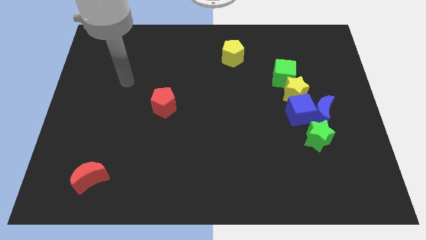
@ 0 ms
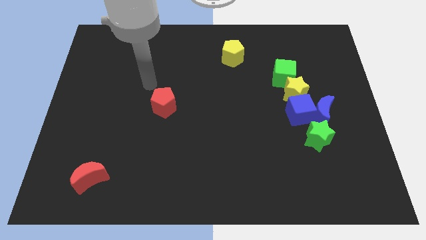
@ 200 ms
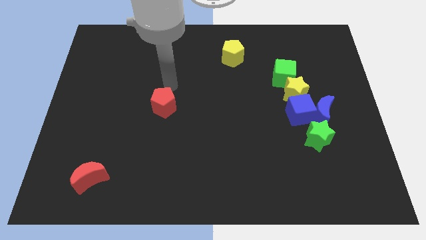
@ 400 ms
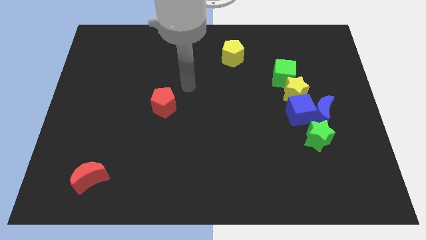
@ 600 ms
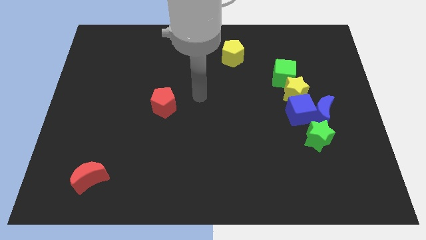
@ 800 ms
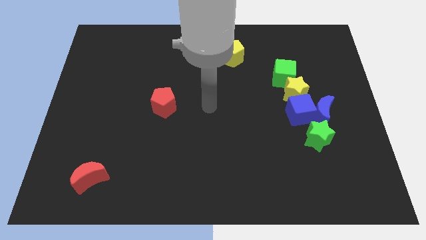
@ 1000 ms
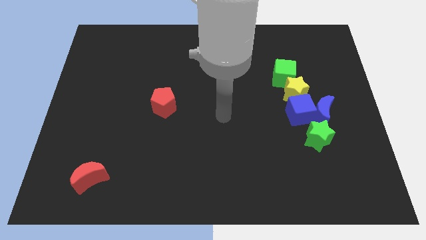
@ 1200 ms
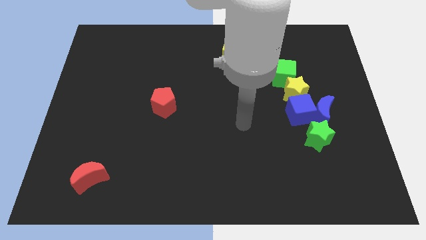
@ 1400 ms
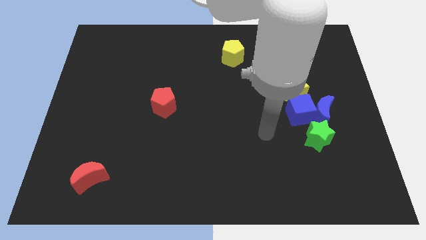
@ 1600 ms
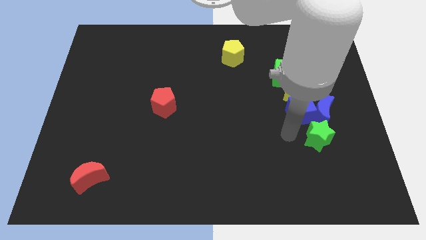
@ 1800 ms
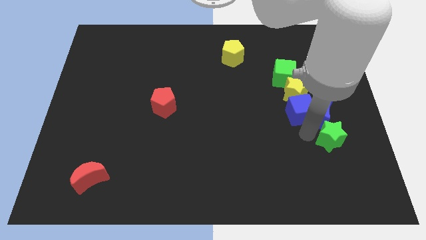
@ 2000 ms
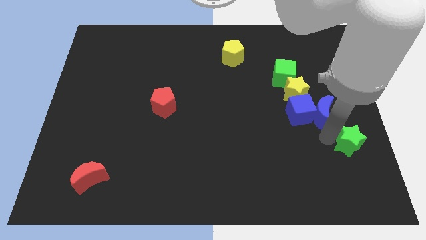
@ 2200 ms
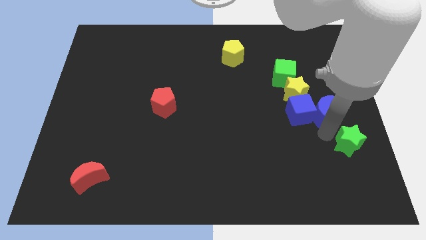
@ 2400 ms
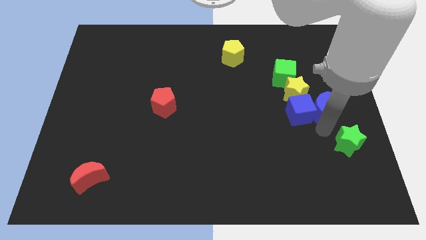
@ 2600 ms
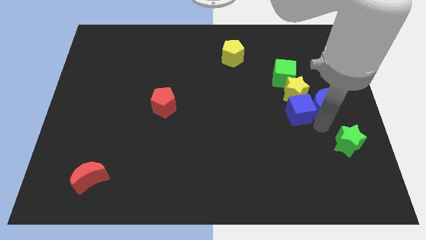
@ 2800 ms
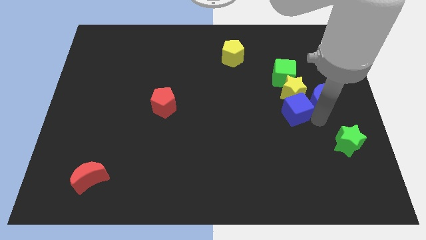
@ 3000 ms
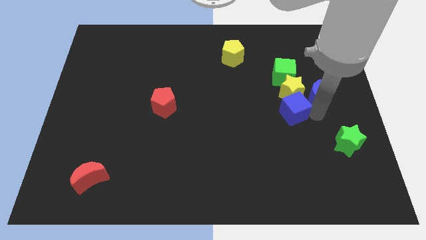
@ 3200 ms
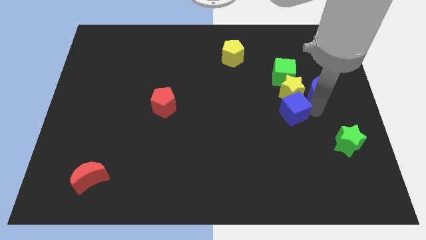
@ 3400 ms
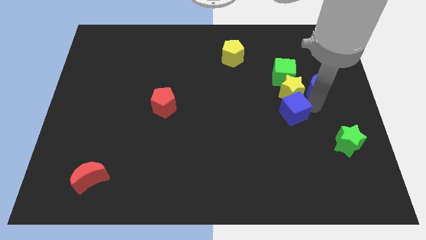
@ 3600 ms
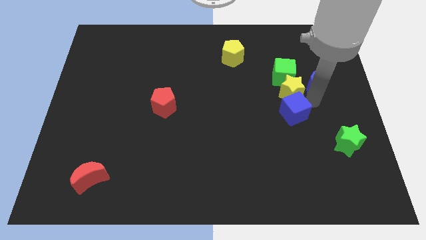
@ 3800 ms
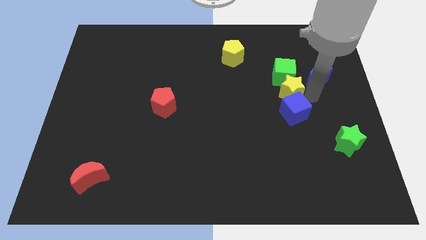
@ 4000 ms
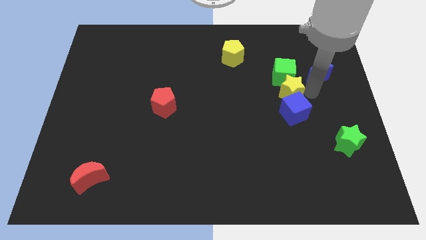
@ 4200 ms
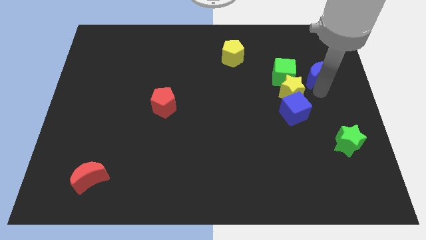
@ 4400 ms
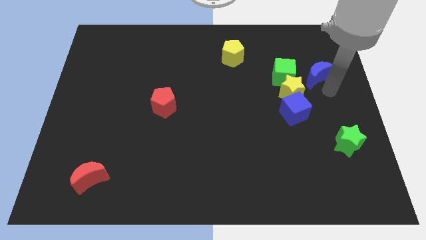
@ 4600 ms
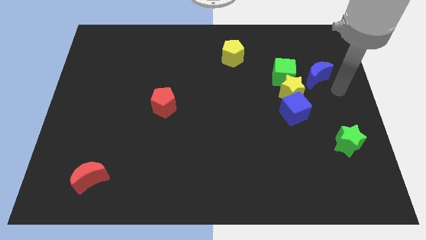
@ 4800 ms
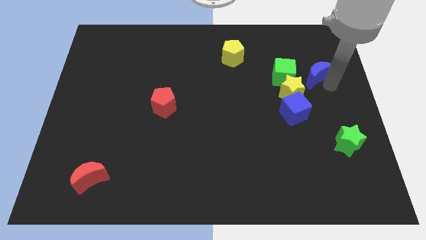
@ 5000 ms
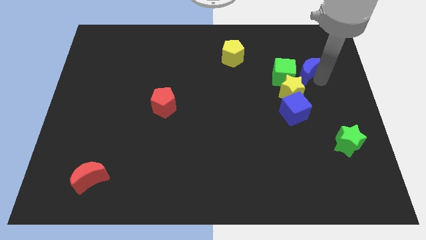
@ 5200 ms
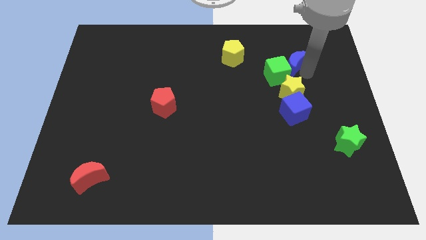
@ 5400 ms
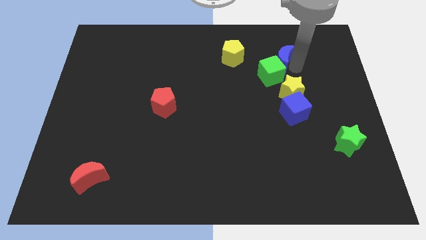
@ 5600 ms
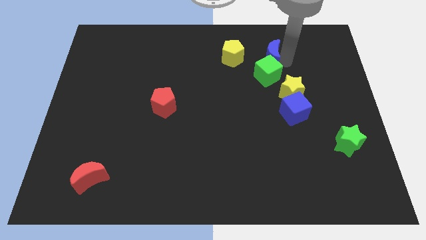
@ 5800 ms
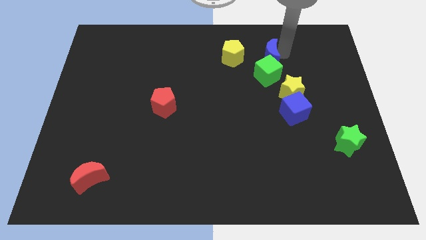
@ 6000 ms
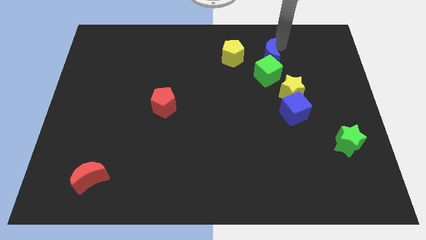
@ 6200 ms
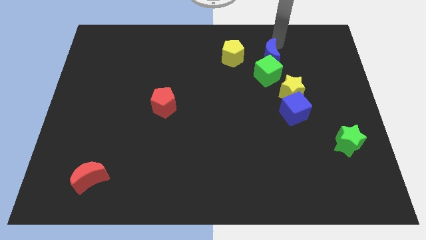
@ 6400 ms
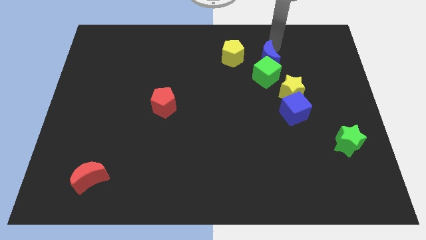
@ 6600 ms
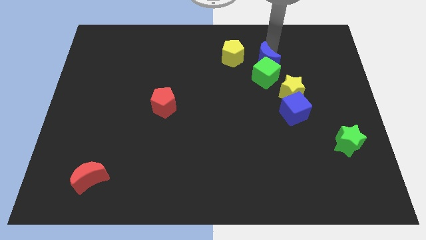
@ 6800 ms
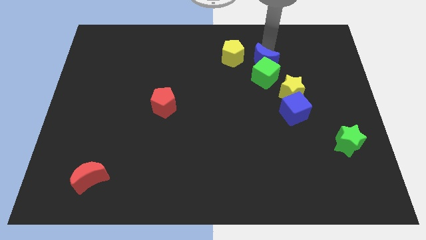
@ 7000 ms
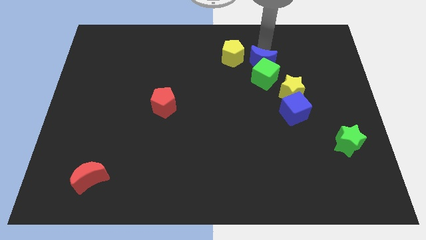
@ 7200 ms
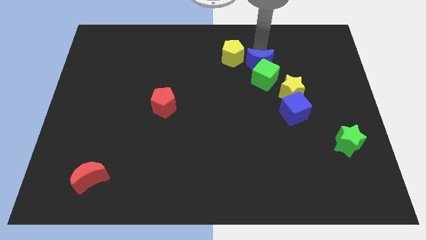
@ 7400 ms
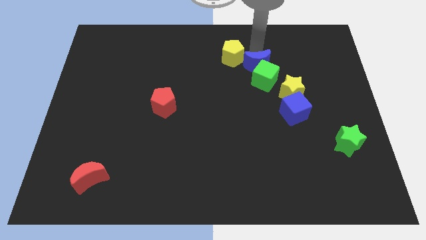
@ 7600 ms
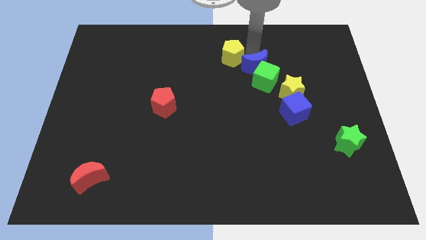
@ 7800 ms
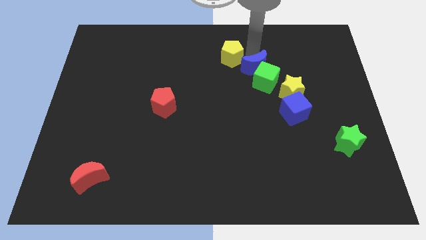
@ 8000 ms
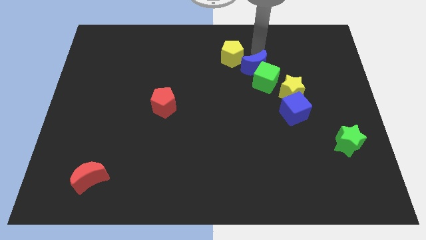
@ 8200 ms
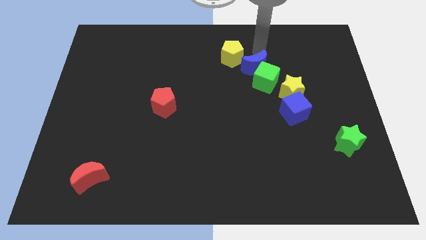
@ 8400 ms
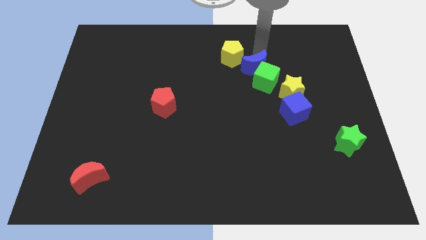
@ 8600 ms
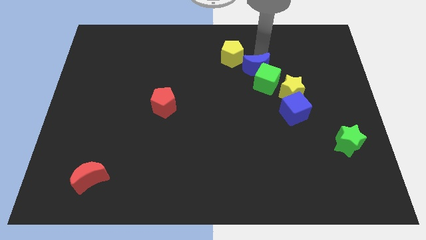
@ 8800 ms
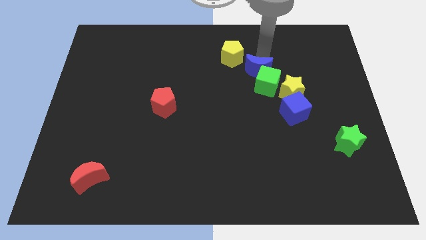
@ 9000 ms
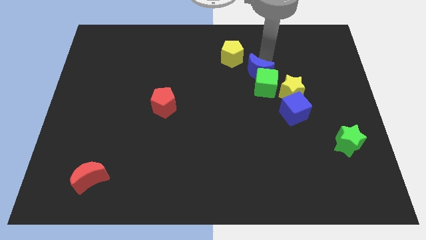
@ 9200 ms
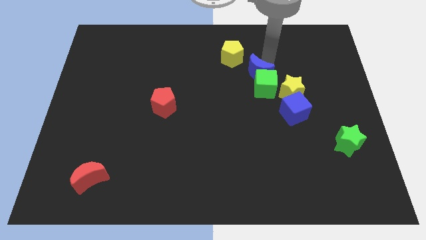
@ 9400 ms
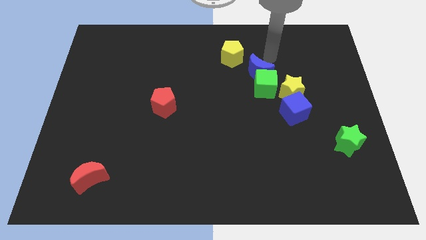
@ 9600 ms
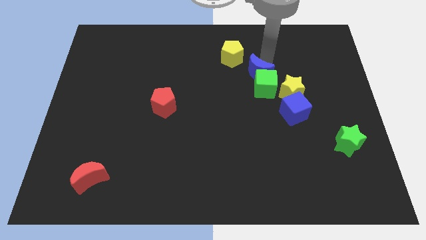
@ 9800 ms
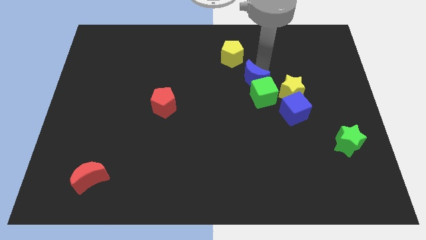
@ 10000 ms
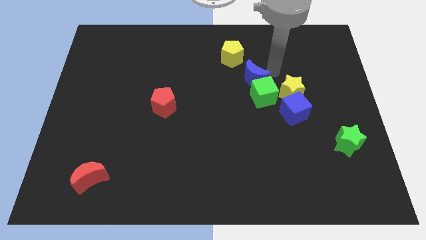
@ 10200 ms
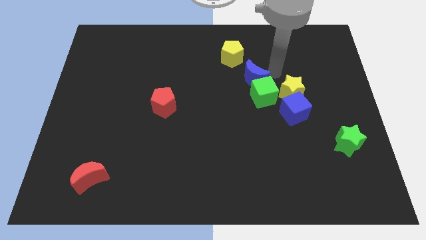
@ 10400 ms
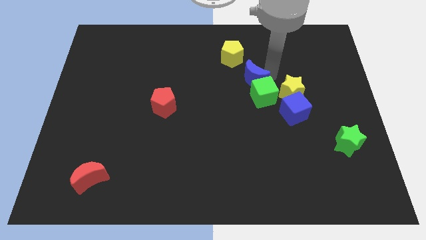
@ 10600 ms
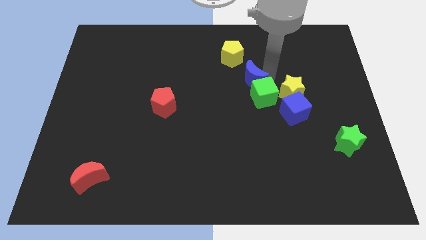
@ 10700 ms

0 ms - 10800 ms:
put the blue moon to the bottom side of the yellow pentagon

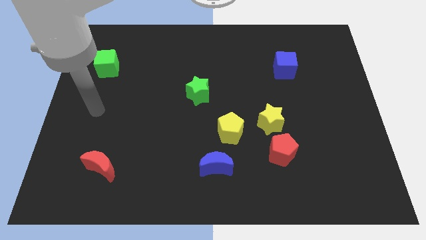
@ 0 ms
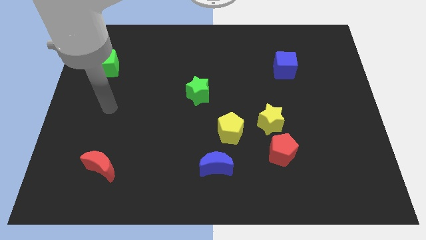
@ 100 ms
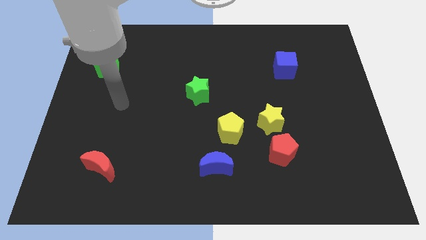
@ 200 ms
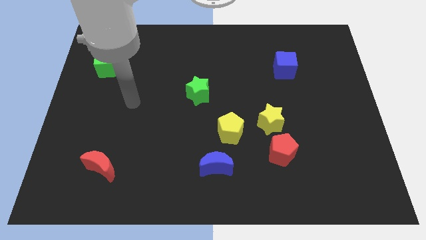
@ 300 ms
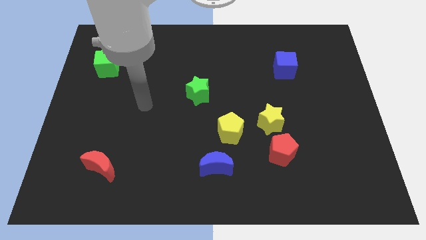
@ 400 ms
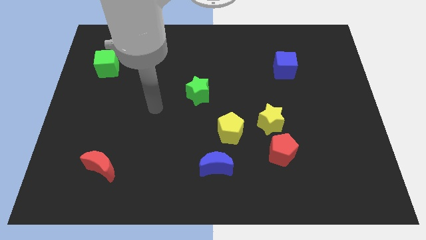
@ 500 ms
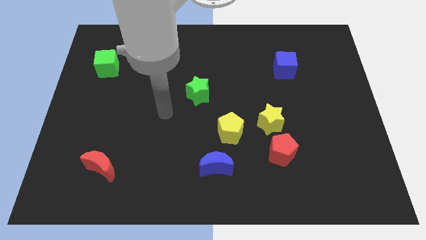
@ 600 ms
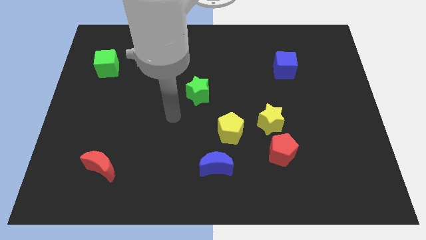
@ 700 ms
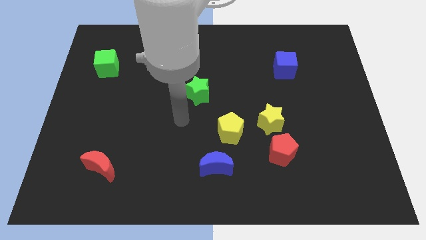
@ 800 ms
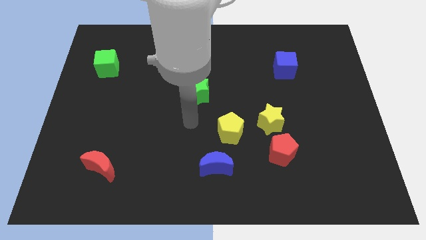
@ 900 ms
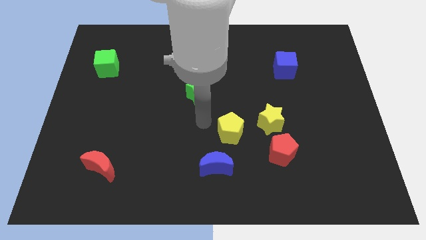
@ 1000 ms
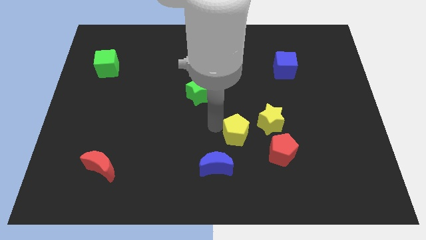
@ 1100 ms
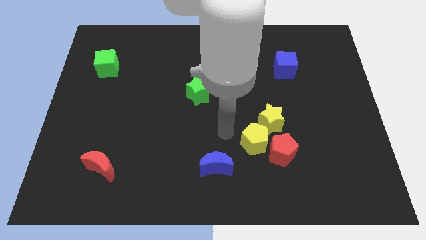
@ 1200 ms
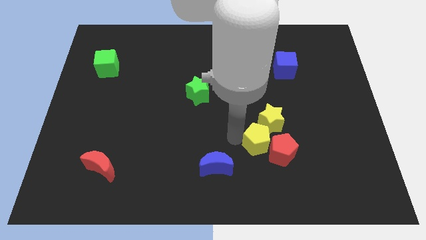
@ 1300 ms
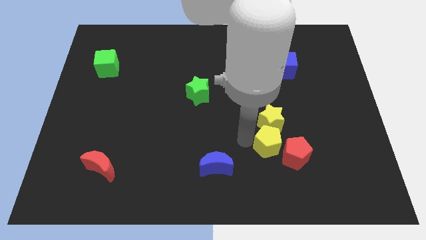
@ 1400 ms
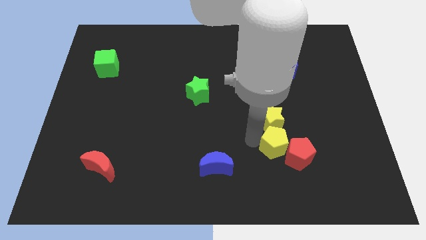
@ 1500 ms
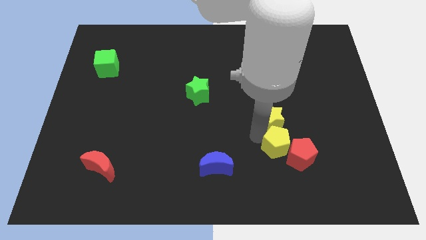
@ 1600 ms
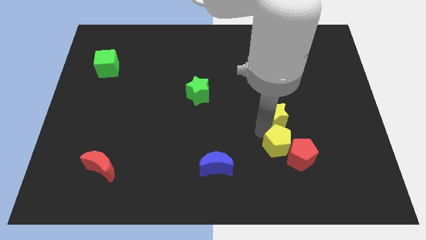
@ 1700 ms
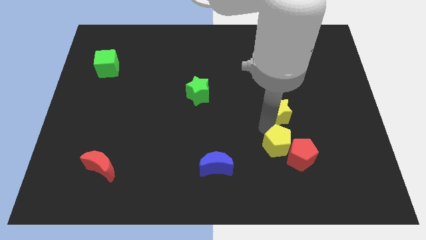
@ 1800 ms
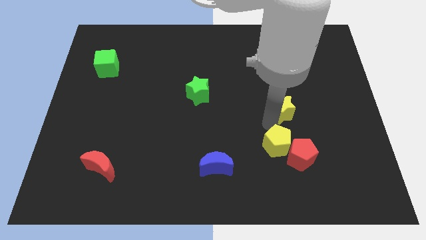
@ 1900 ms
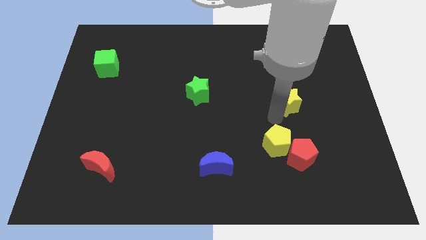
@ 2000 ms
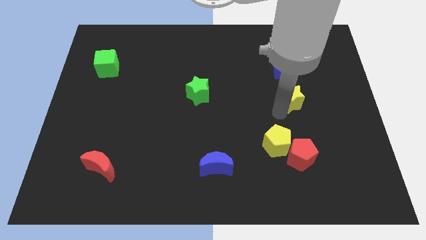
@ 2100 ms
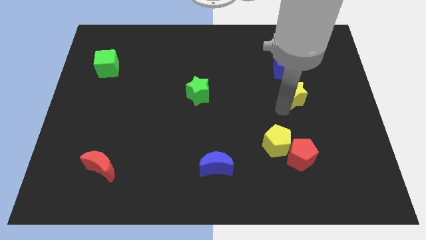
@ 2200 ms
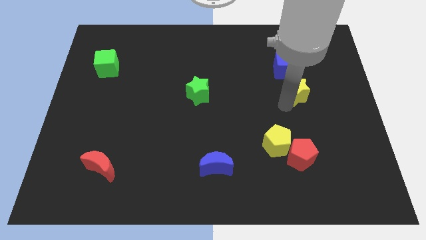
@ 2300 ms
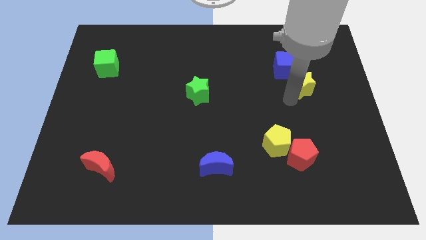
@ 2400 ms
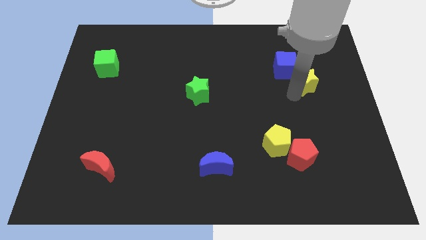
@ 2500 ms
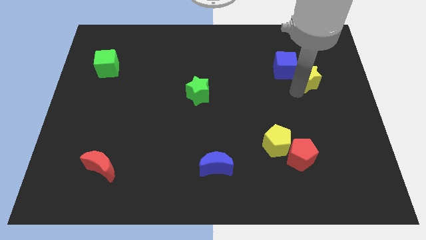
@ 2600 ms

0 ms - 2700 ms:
push the yellow star to the right side of the blue cube
